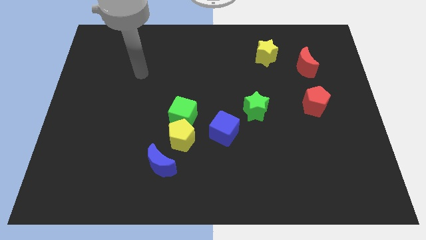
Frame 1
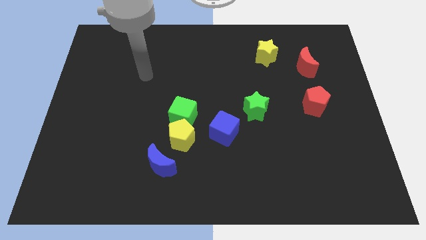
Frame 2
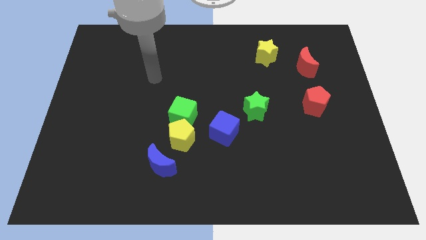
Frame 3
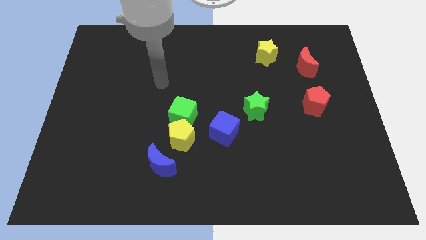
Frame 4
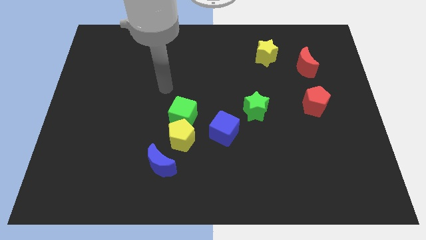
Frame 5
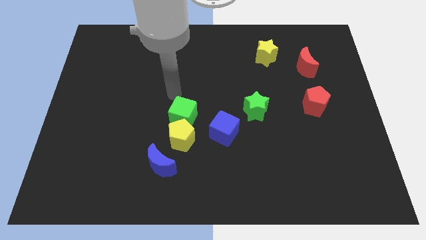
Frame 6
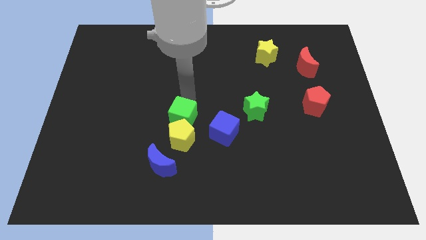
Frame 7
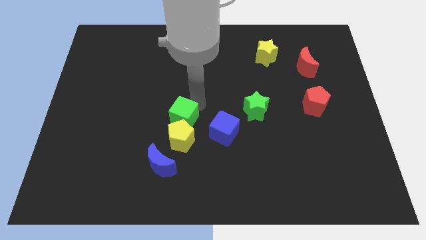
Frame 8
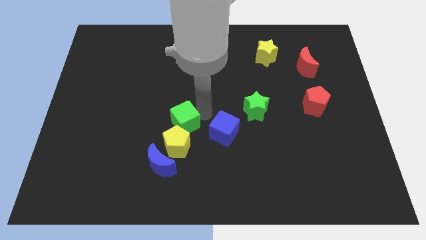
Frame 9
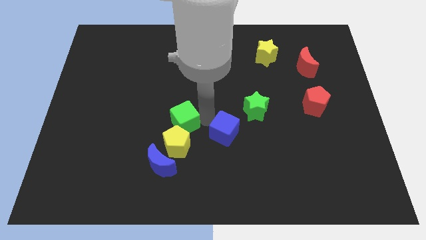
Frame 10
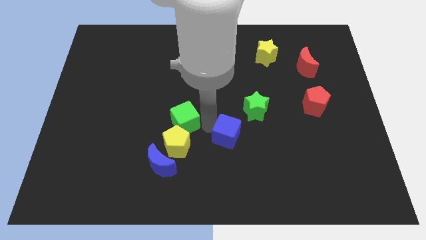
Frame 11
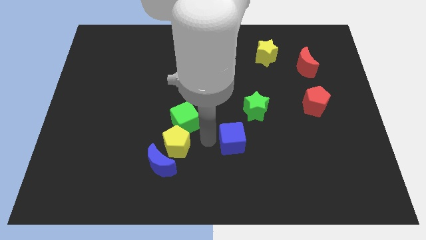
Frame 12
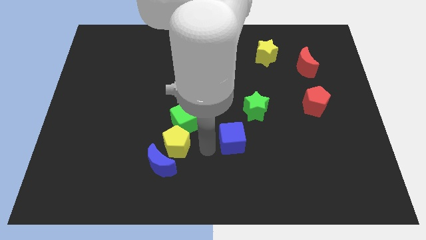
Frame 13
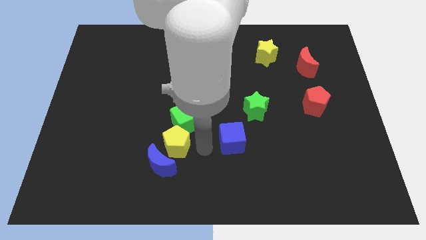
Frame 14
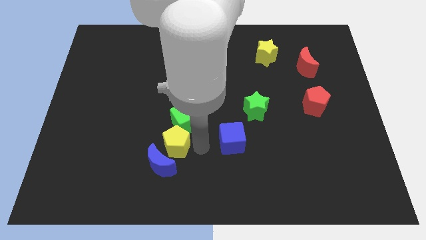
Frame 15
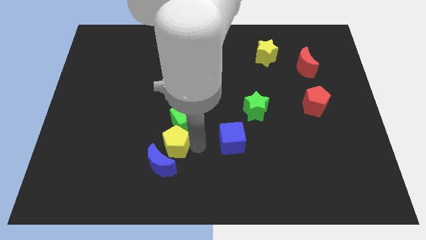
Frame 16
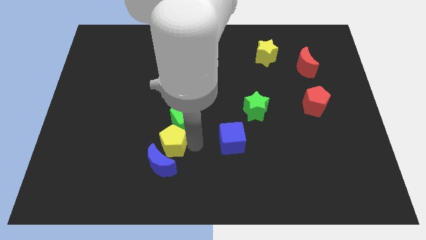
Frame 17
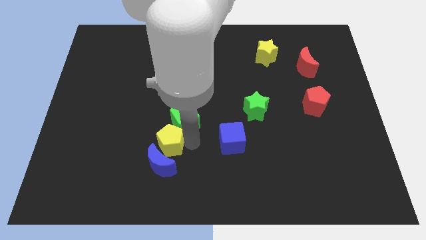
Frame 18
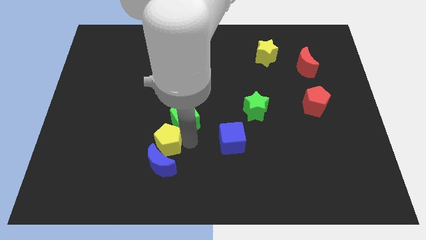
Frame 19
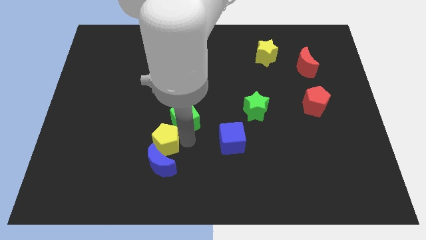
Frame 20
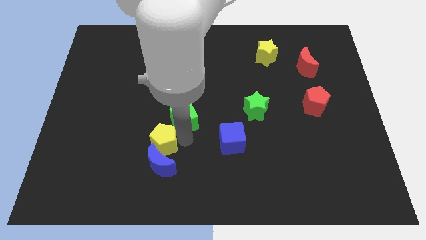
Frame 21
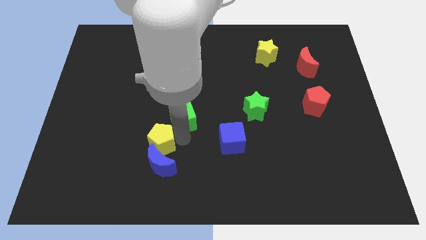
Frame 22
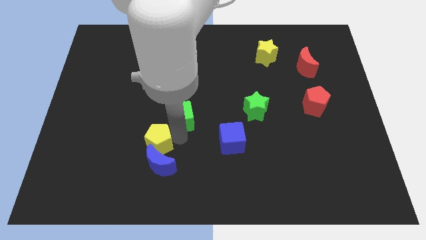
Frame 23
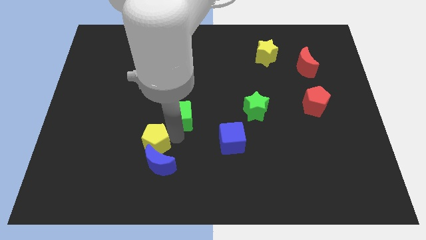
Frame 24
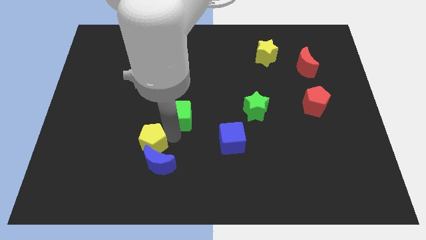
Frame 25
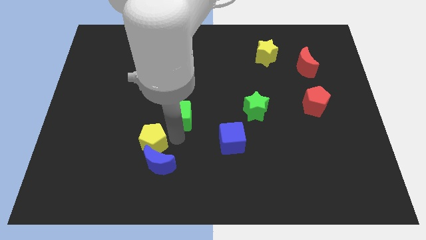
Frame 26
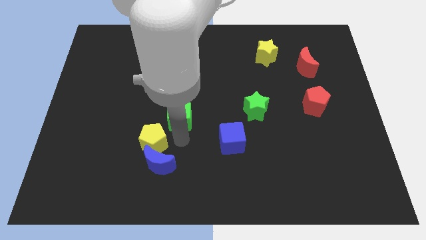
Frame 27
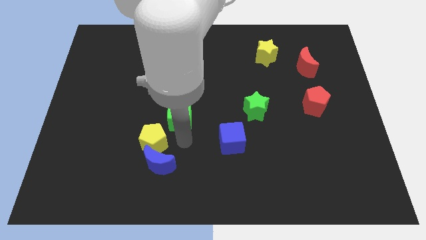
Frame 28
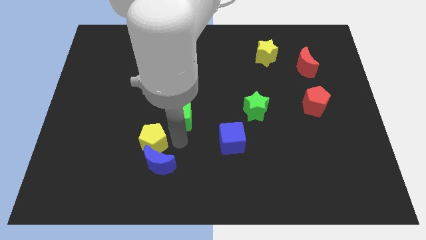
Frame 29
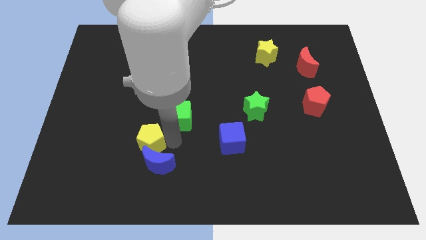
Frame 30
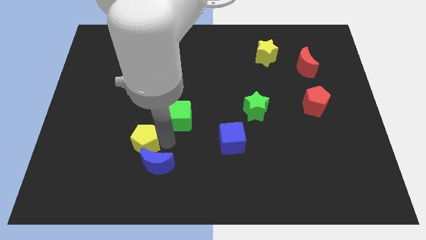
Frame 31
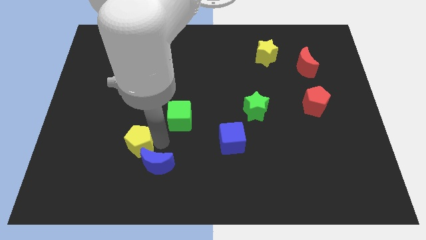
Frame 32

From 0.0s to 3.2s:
move the yellow pentagon away from the group

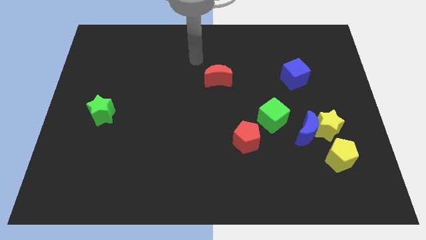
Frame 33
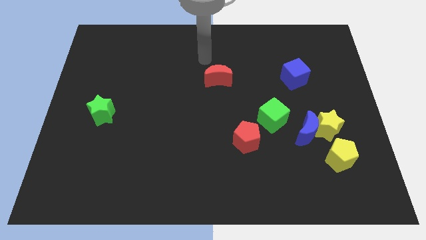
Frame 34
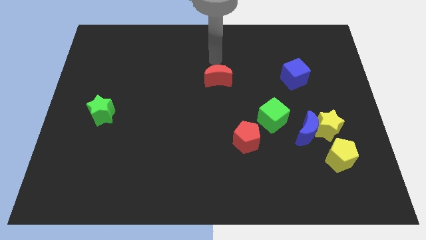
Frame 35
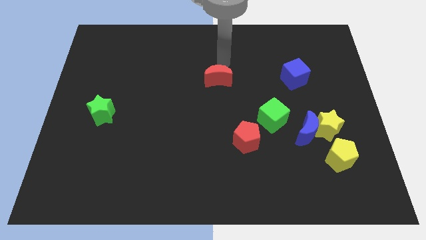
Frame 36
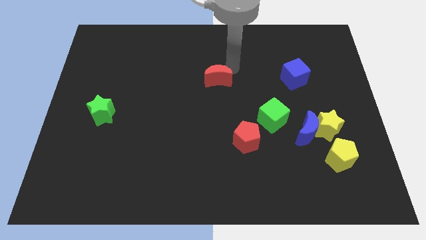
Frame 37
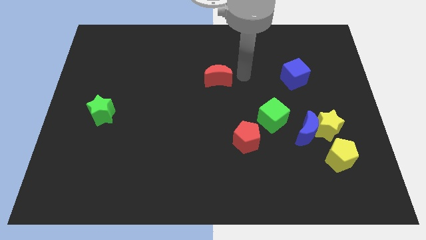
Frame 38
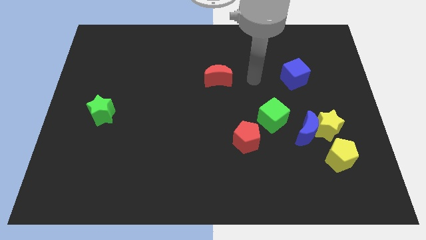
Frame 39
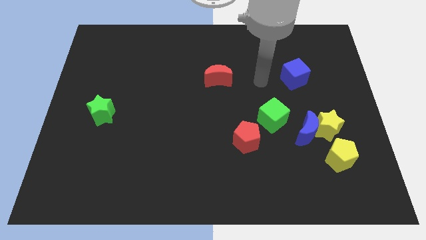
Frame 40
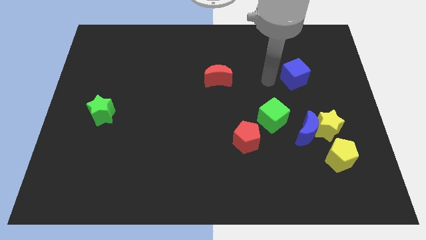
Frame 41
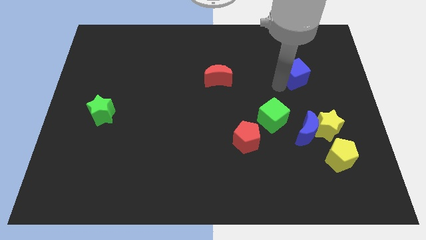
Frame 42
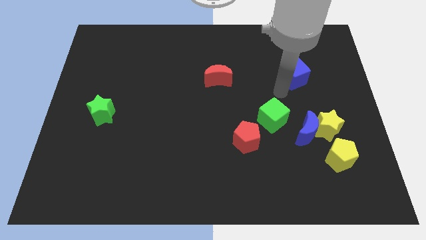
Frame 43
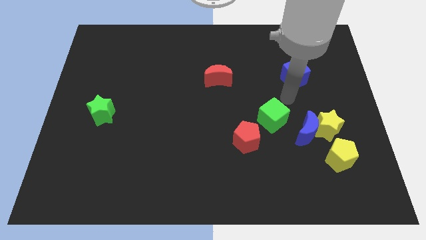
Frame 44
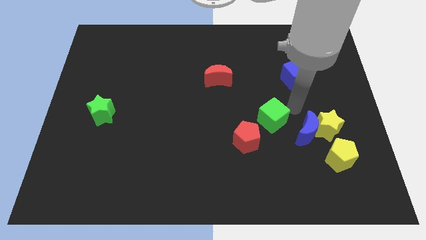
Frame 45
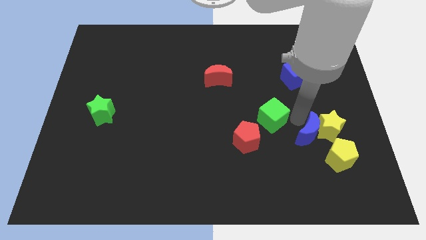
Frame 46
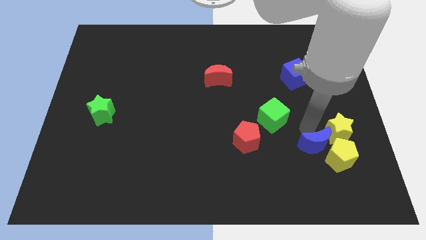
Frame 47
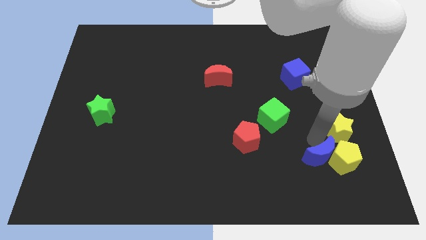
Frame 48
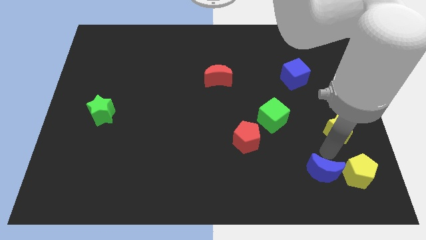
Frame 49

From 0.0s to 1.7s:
move the yellow star away from the blue moon and yellow pentagon

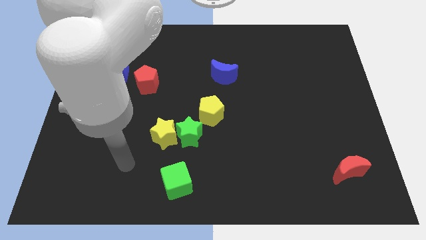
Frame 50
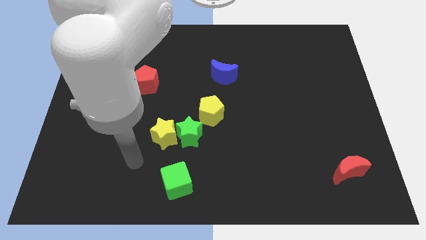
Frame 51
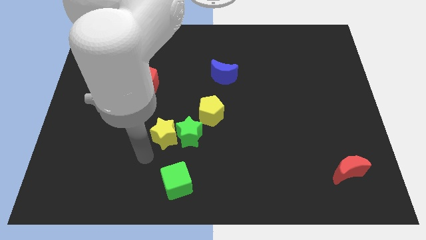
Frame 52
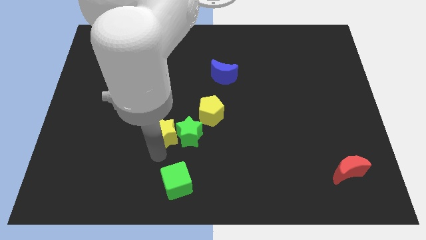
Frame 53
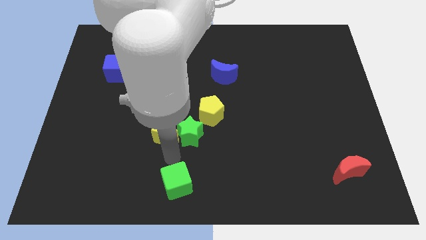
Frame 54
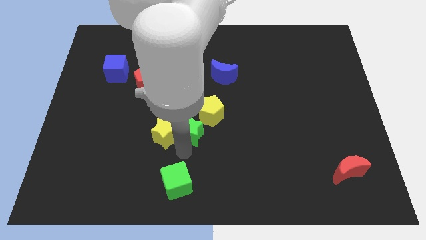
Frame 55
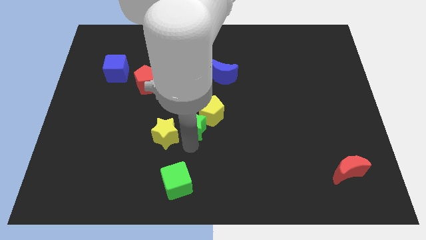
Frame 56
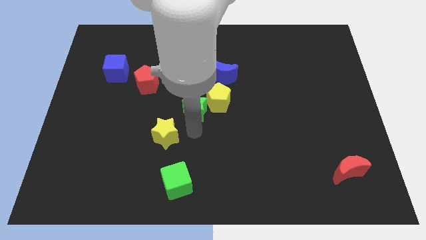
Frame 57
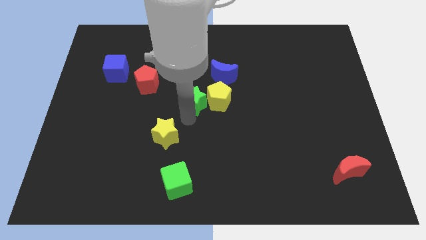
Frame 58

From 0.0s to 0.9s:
pull the yellow star apart from the green star

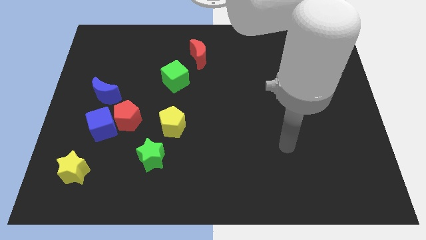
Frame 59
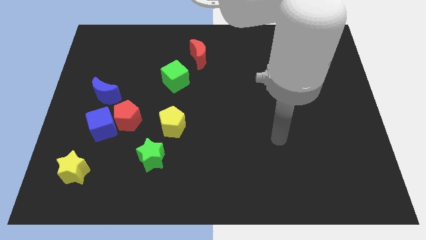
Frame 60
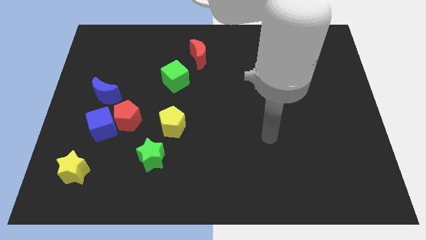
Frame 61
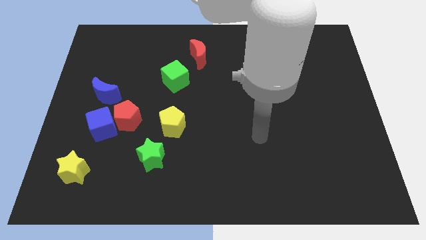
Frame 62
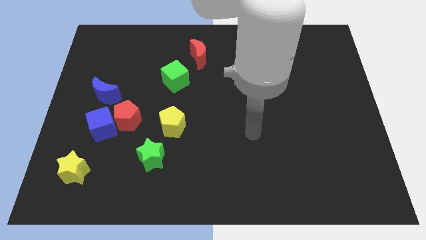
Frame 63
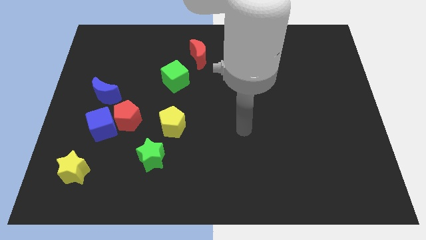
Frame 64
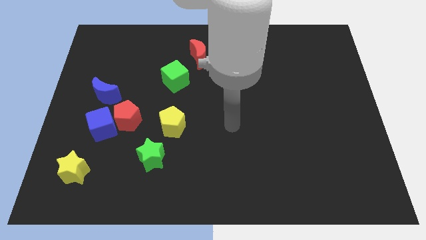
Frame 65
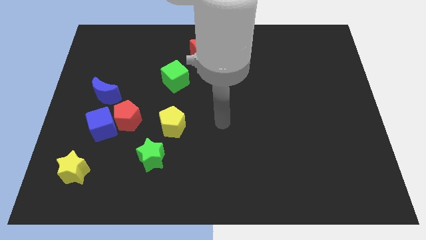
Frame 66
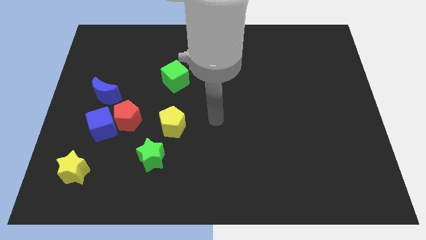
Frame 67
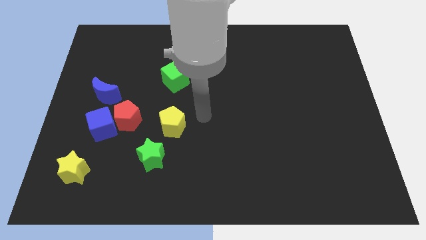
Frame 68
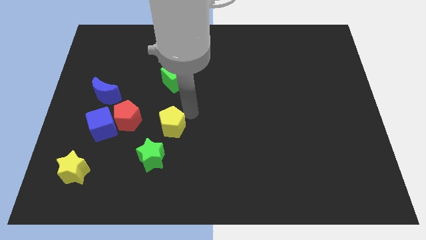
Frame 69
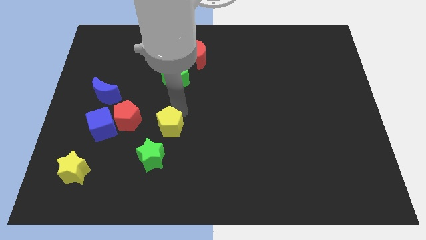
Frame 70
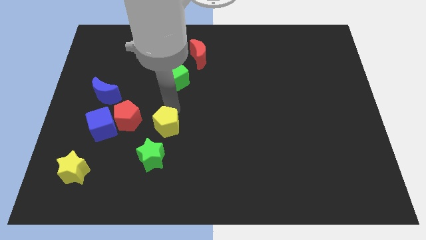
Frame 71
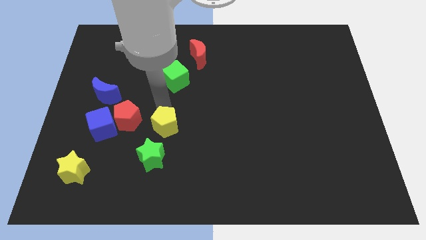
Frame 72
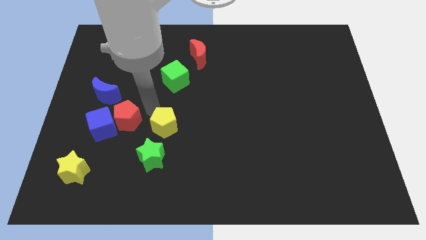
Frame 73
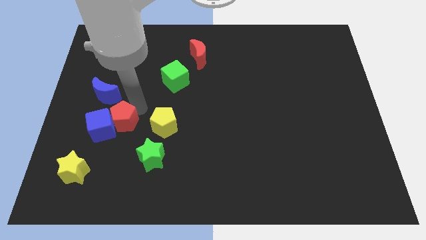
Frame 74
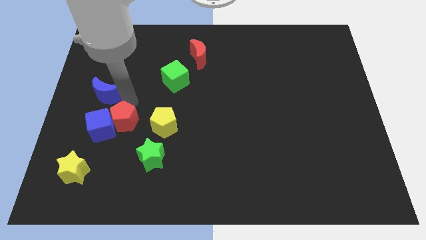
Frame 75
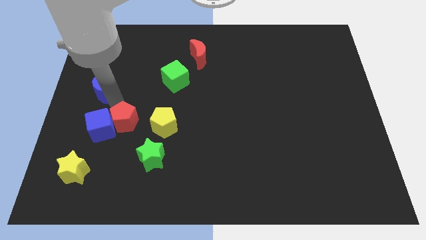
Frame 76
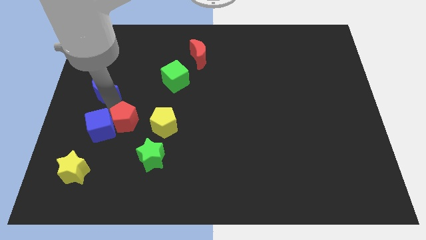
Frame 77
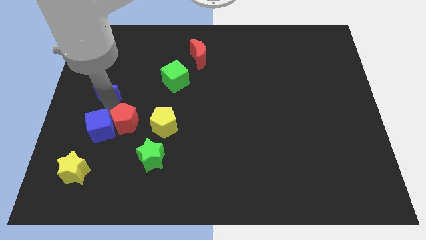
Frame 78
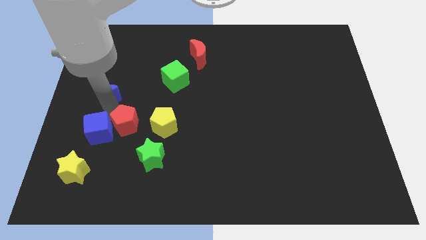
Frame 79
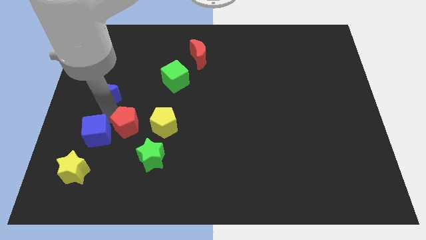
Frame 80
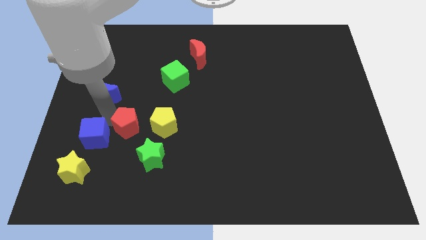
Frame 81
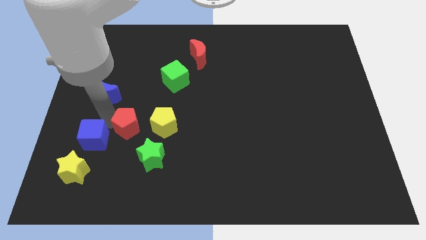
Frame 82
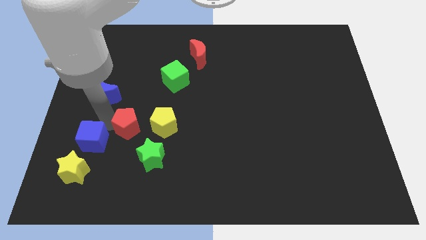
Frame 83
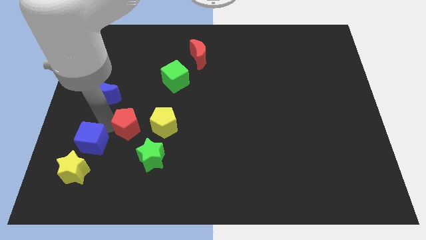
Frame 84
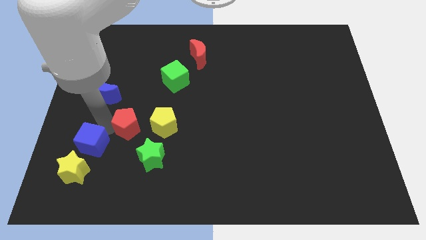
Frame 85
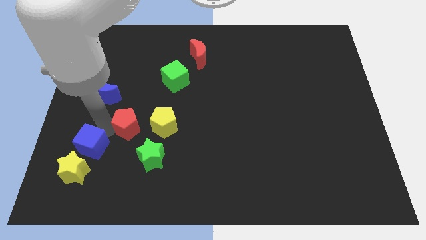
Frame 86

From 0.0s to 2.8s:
pull the blue cube apart from the red pentagon and blue moon

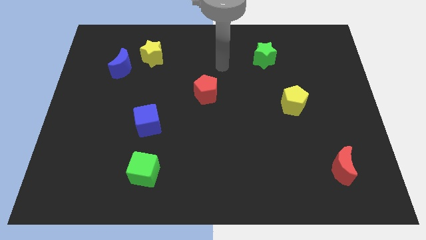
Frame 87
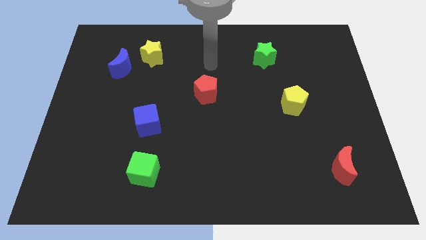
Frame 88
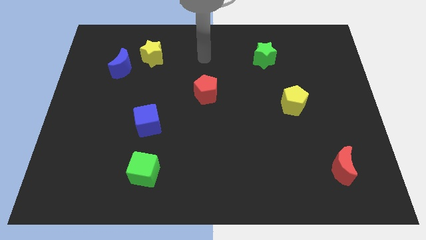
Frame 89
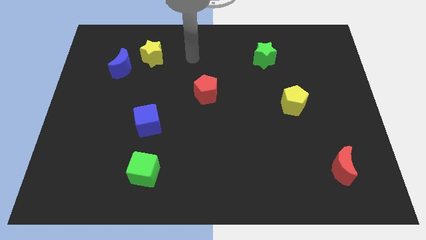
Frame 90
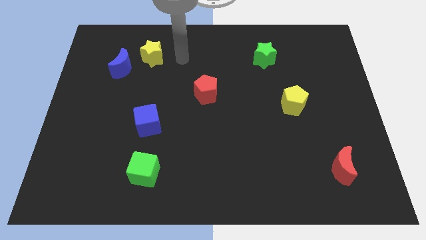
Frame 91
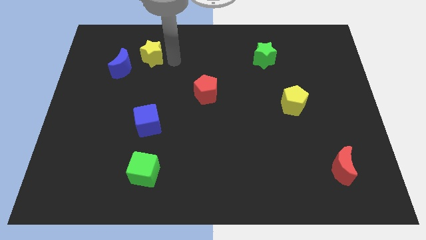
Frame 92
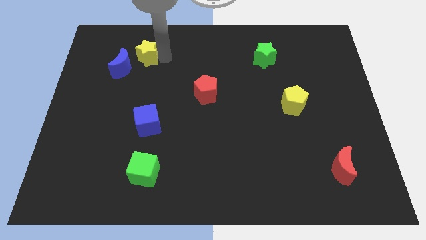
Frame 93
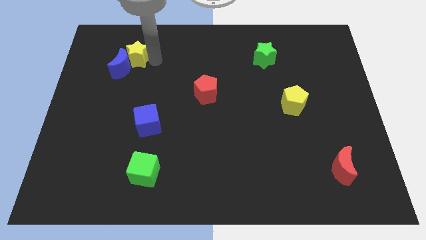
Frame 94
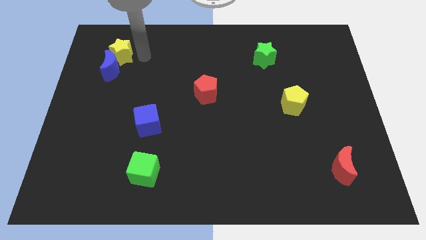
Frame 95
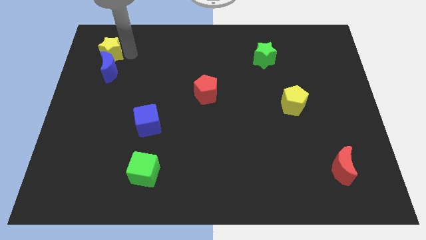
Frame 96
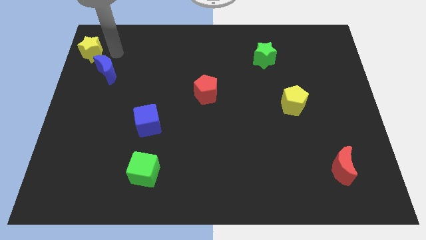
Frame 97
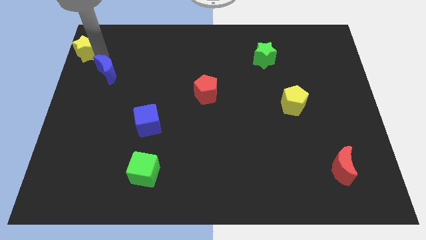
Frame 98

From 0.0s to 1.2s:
separate the blue moon from the yellow star
